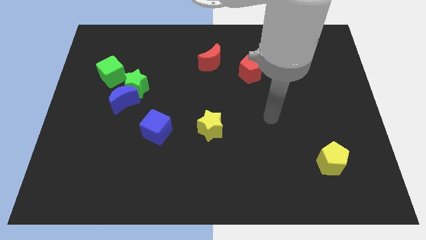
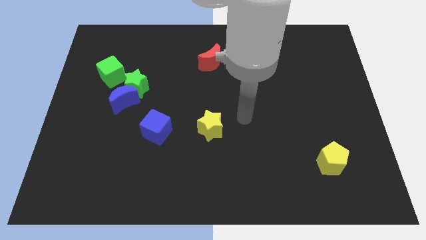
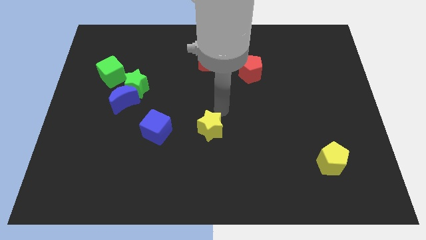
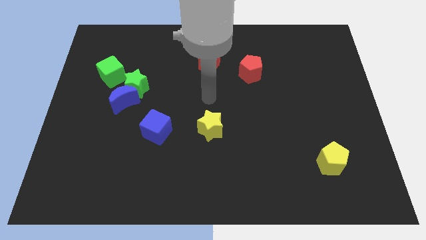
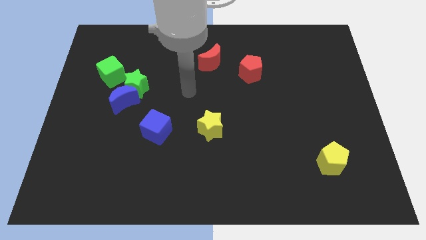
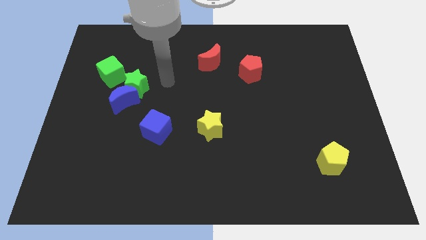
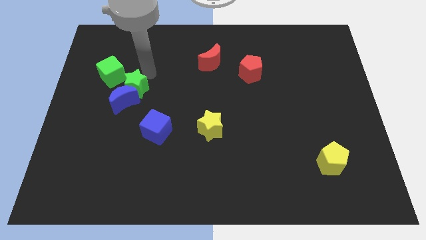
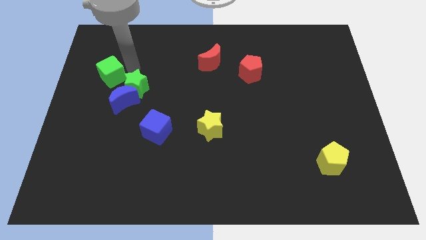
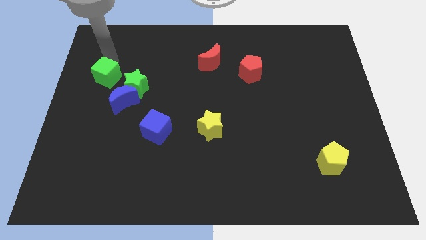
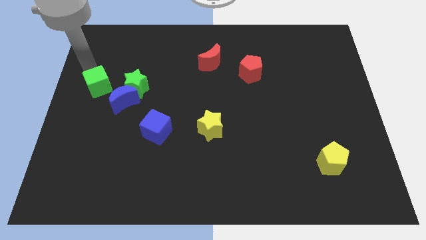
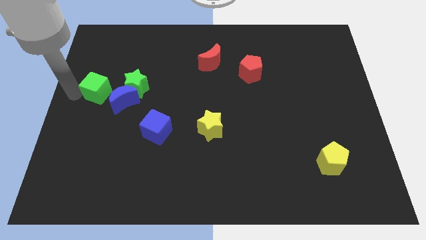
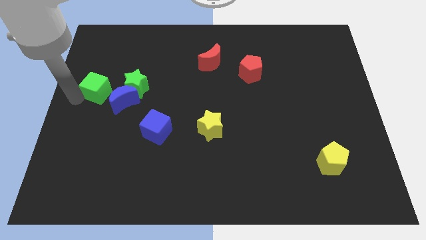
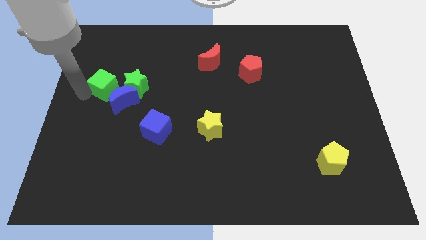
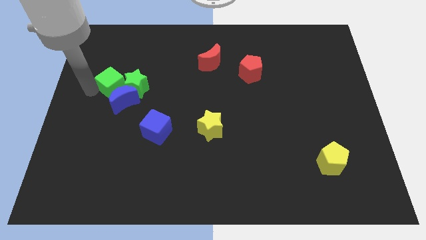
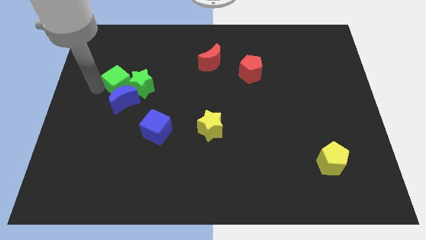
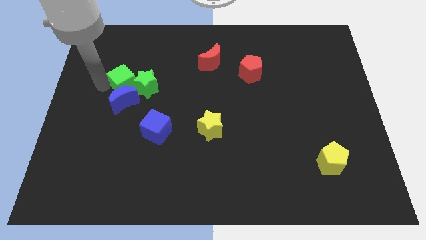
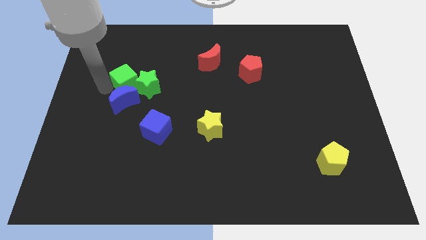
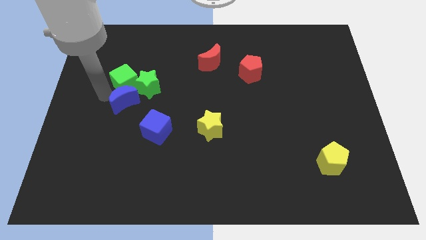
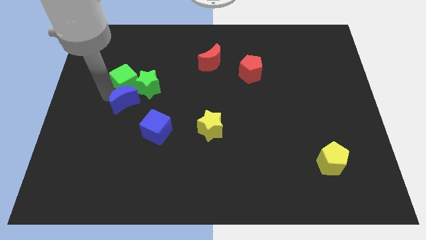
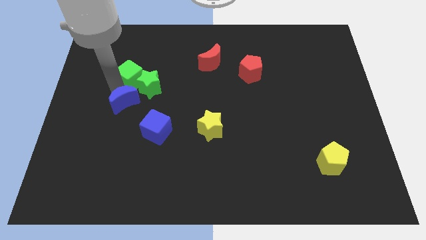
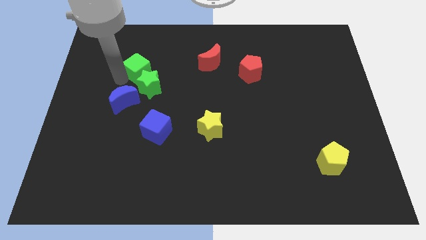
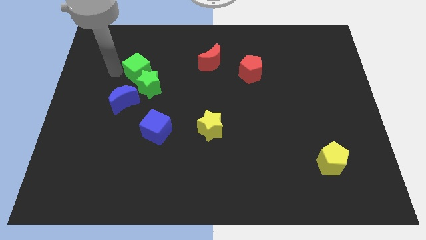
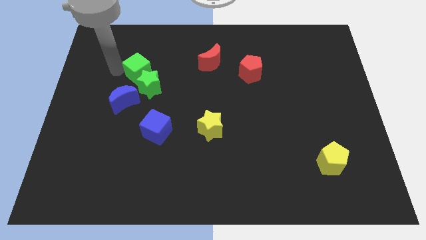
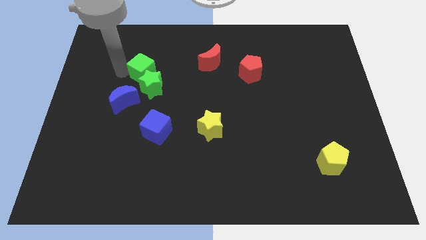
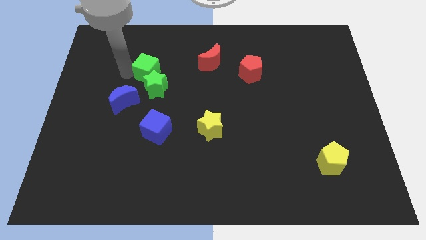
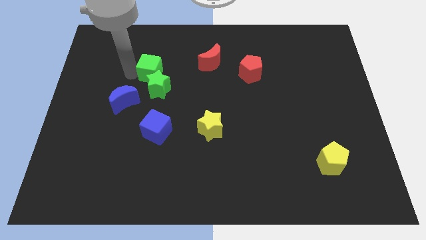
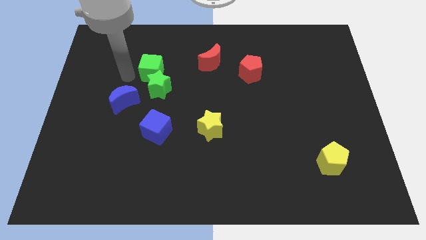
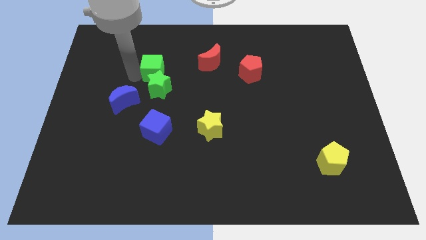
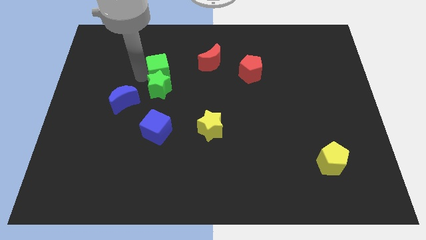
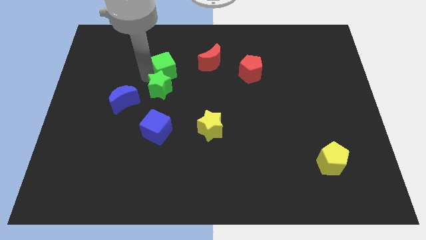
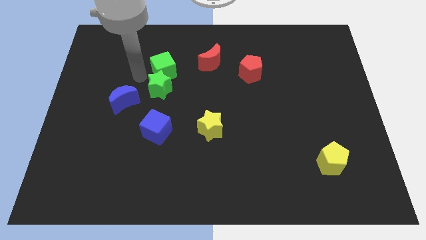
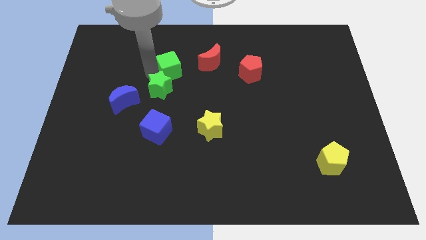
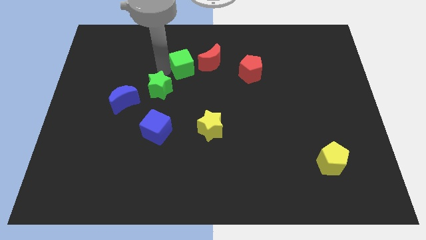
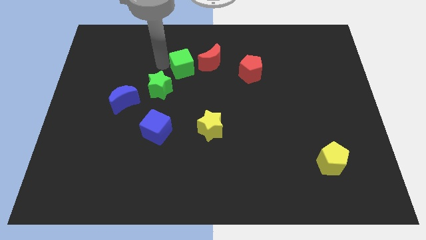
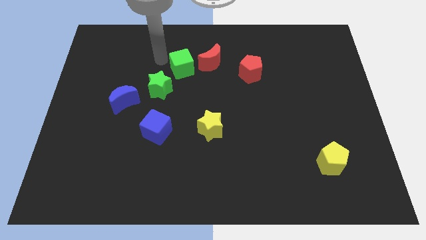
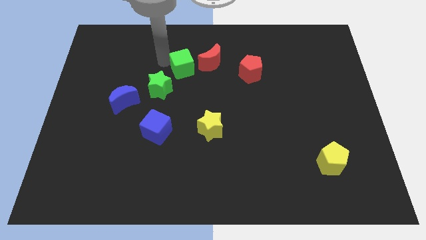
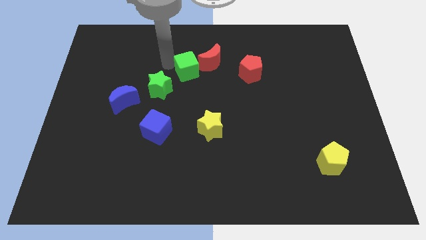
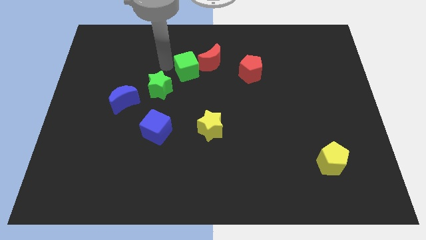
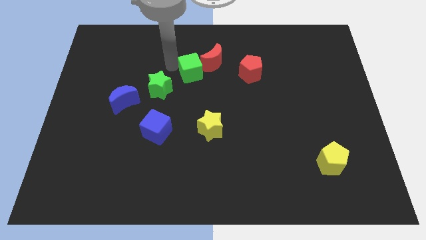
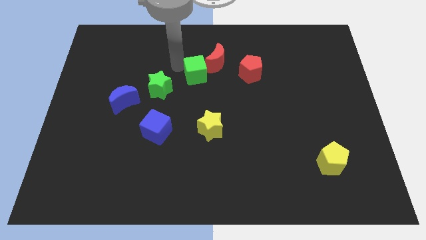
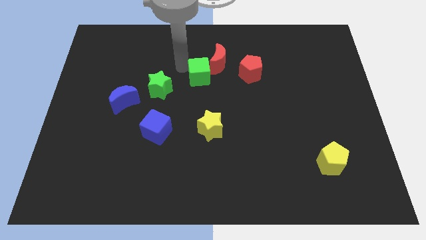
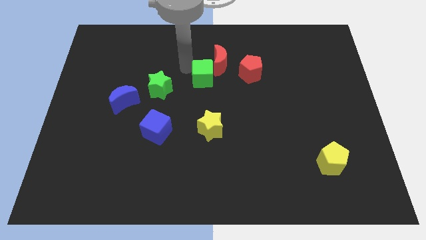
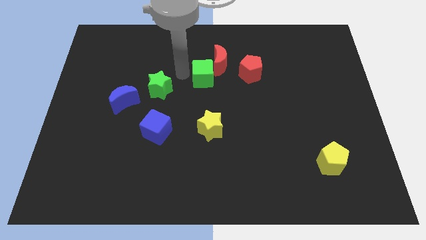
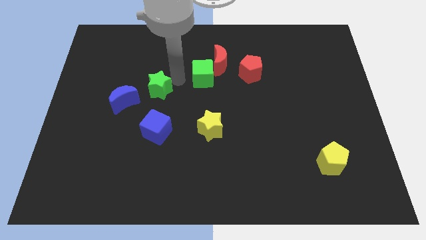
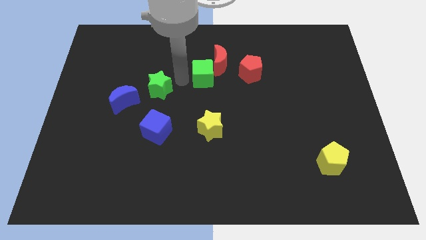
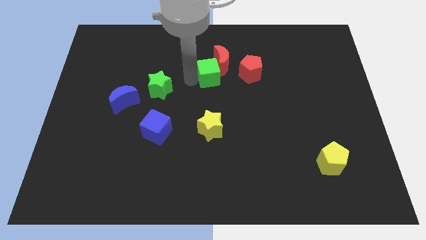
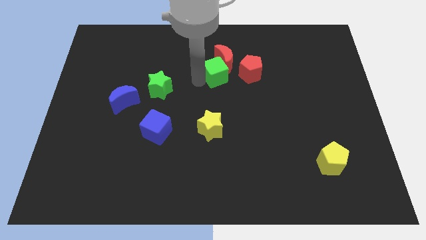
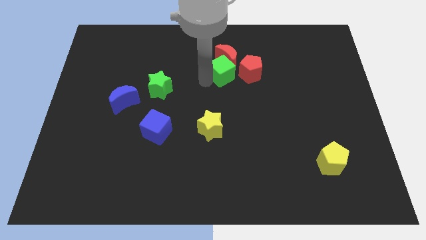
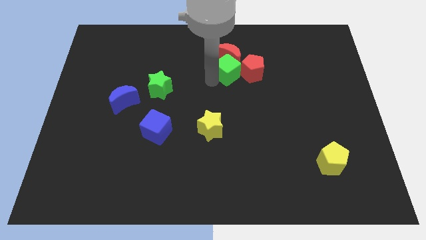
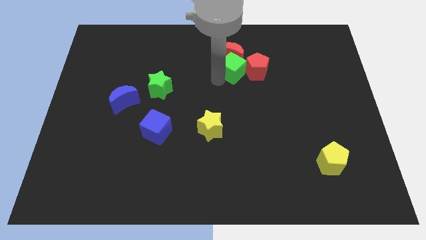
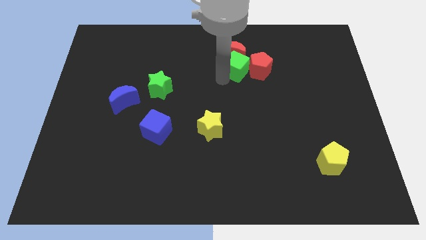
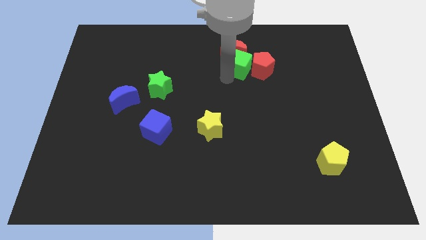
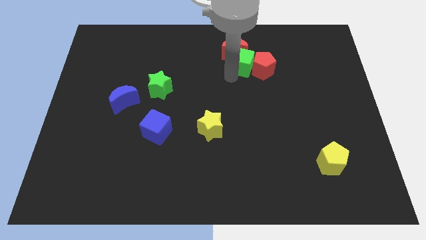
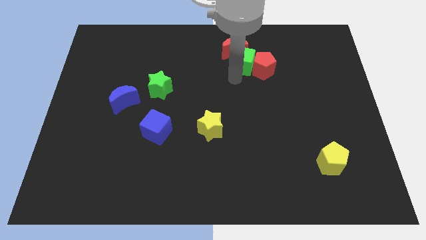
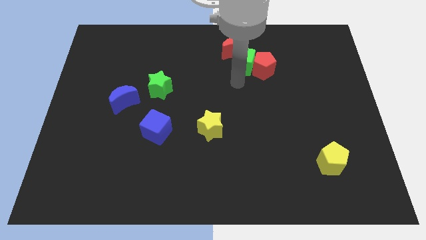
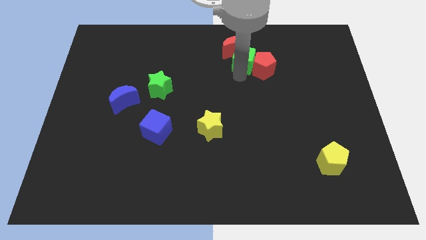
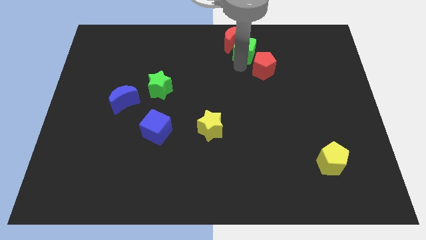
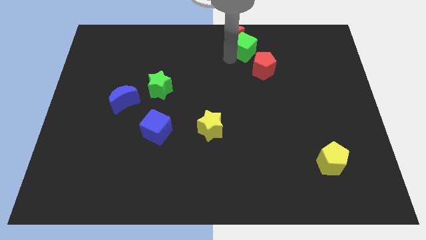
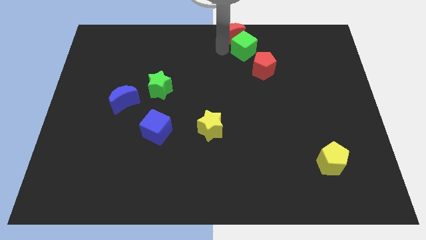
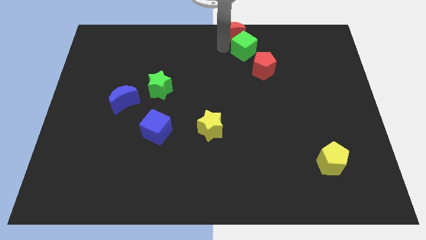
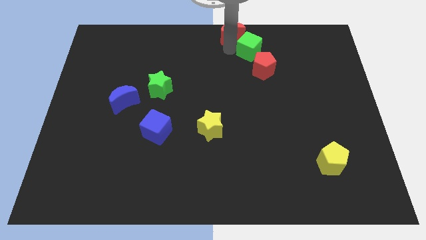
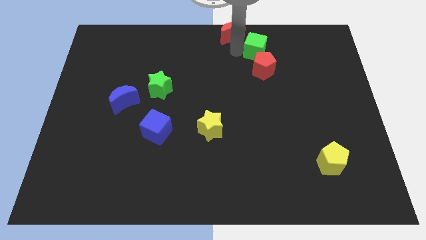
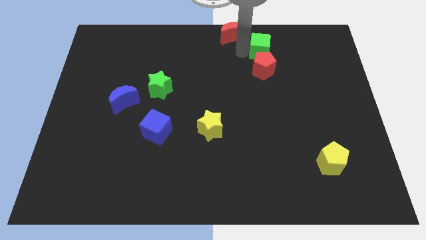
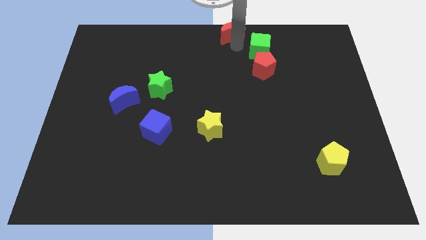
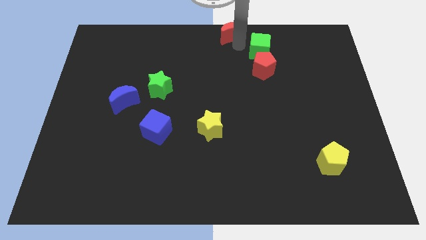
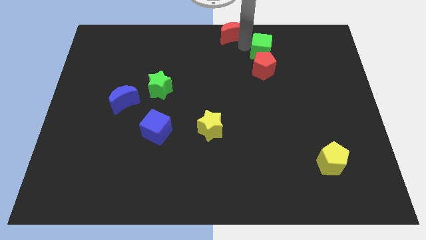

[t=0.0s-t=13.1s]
push the green cube diagonally up and to the right of the red pentagon
